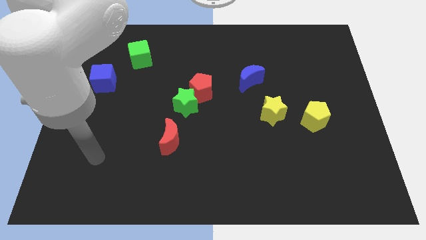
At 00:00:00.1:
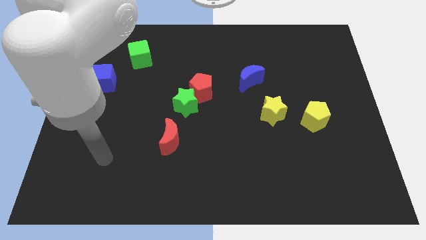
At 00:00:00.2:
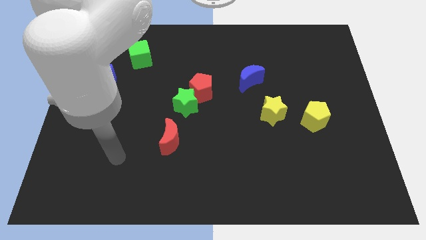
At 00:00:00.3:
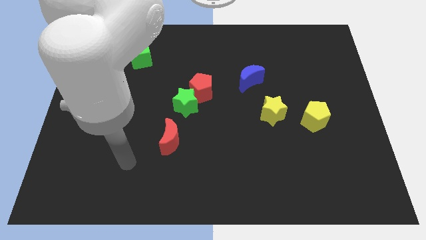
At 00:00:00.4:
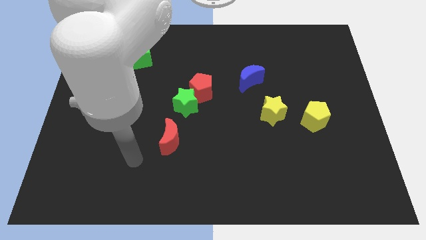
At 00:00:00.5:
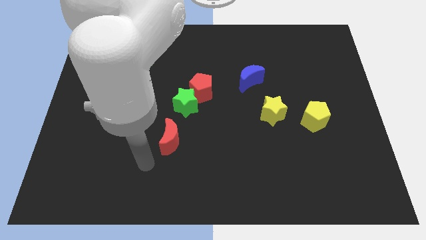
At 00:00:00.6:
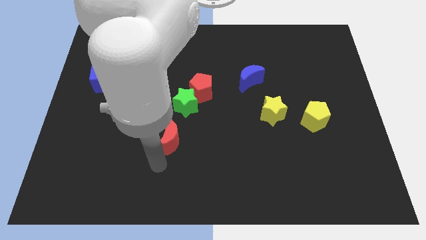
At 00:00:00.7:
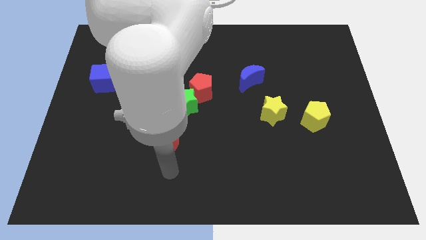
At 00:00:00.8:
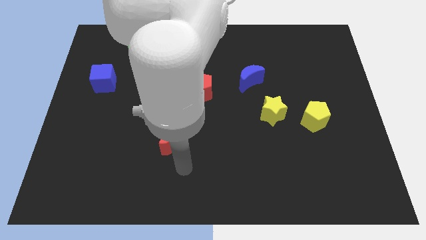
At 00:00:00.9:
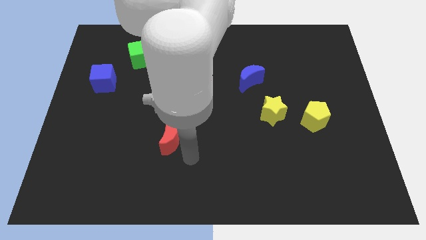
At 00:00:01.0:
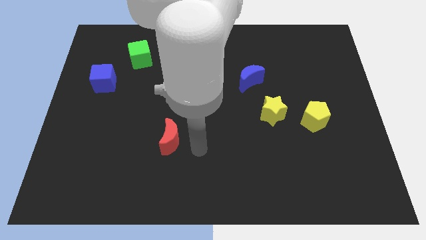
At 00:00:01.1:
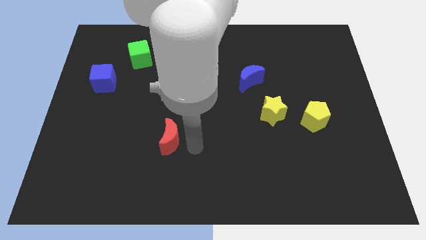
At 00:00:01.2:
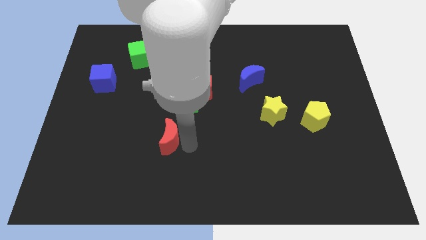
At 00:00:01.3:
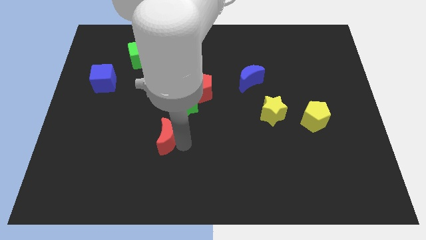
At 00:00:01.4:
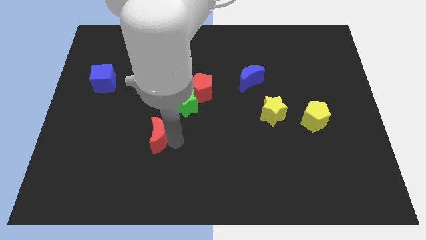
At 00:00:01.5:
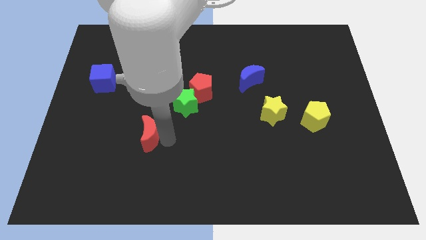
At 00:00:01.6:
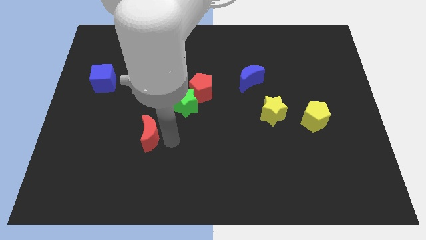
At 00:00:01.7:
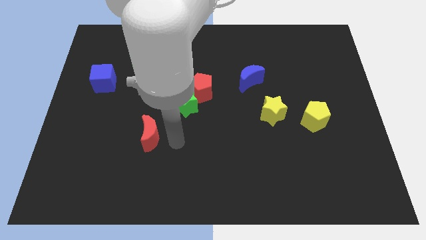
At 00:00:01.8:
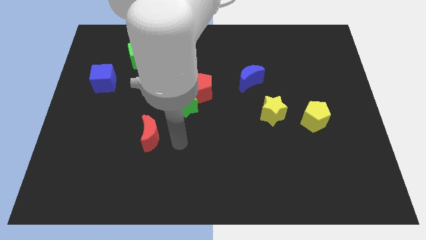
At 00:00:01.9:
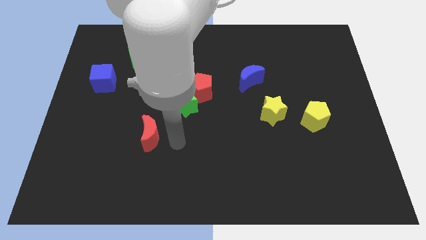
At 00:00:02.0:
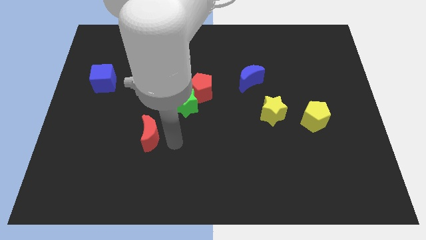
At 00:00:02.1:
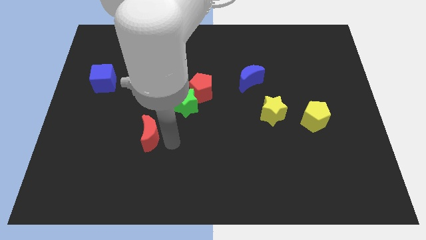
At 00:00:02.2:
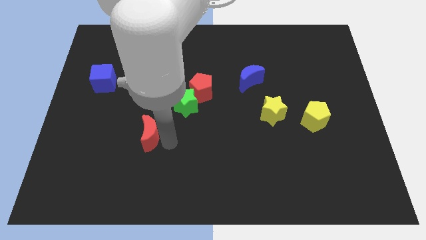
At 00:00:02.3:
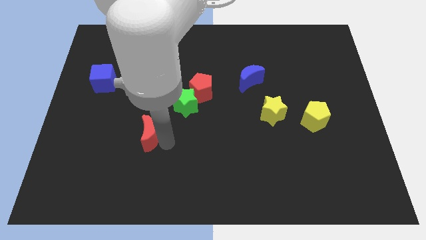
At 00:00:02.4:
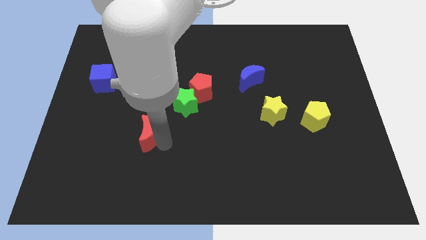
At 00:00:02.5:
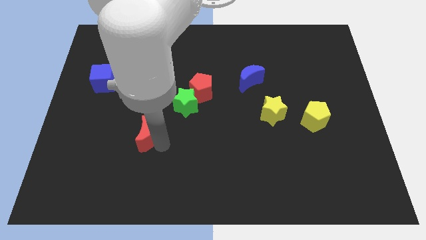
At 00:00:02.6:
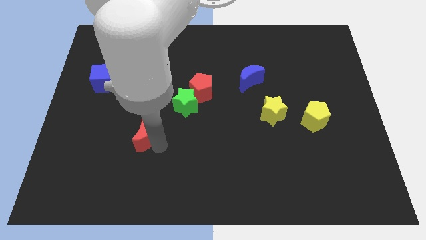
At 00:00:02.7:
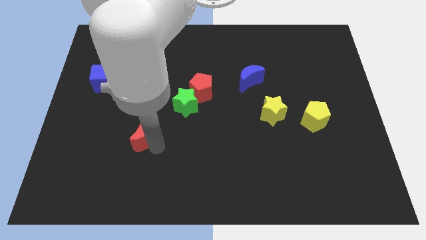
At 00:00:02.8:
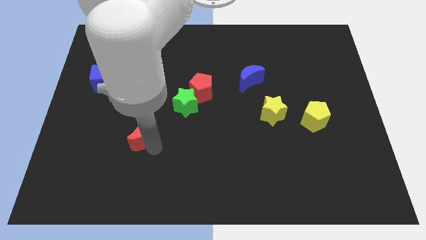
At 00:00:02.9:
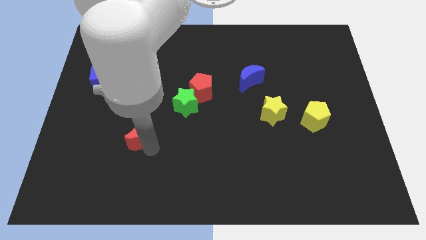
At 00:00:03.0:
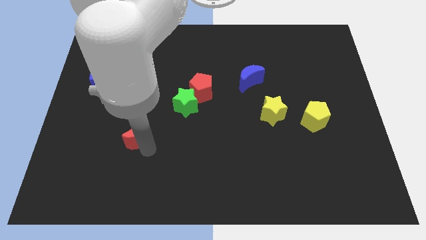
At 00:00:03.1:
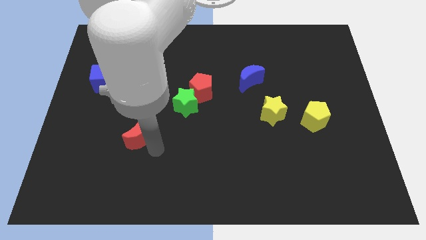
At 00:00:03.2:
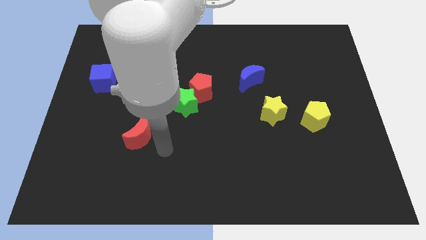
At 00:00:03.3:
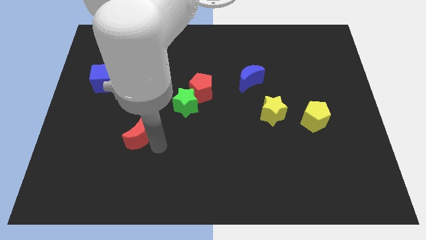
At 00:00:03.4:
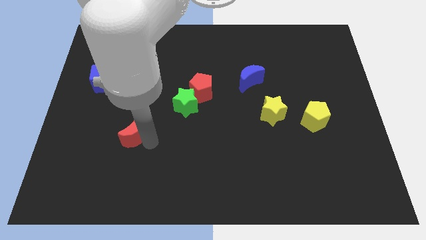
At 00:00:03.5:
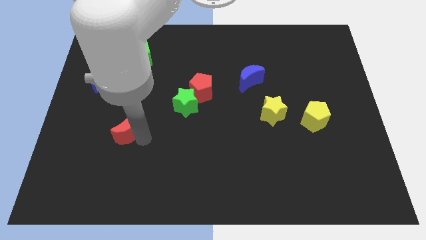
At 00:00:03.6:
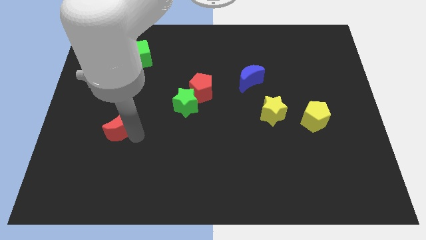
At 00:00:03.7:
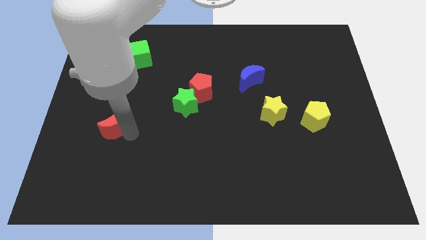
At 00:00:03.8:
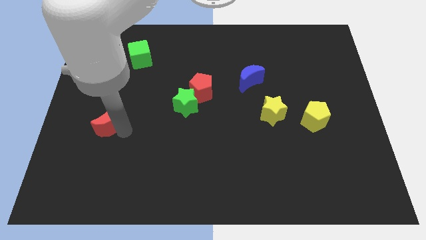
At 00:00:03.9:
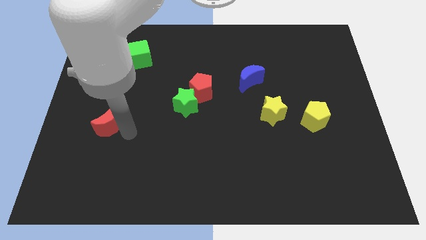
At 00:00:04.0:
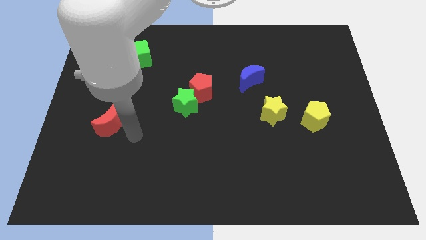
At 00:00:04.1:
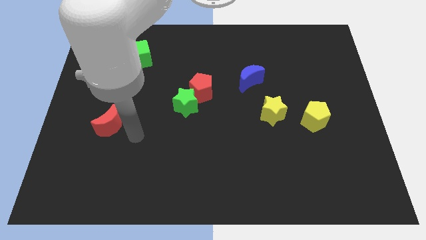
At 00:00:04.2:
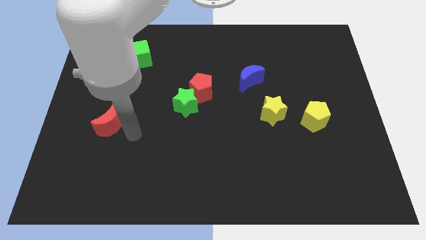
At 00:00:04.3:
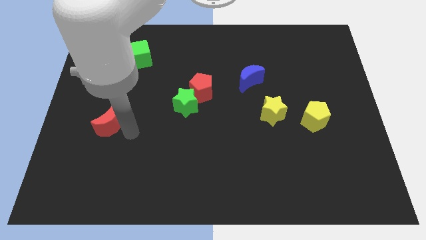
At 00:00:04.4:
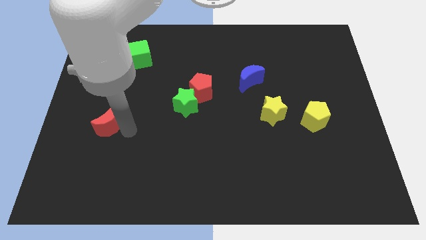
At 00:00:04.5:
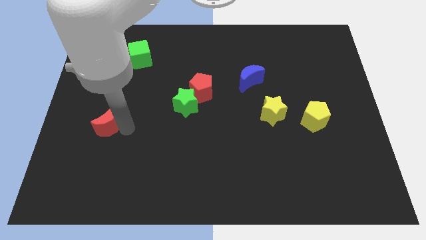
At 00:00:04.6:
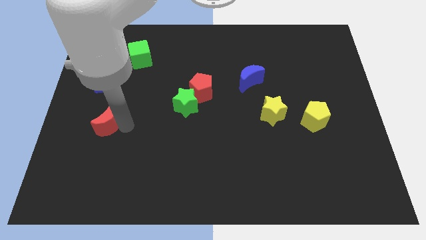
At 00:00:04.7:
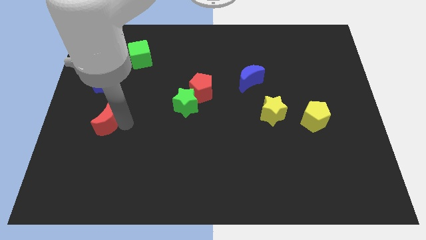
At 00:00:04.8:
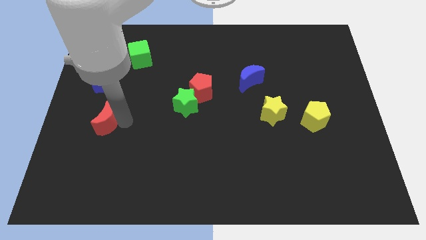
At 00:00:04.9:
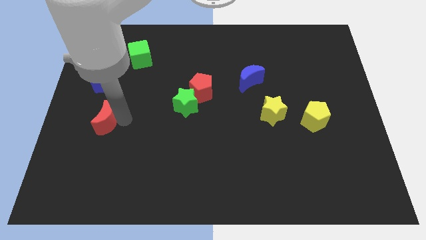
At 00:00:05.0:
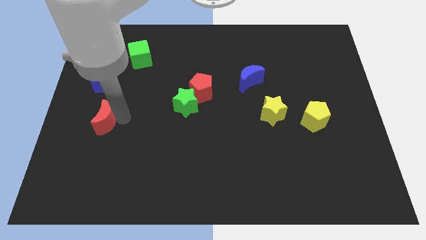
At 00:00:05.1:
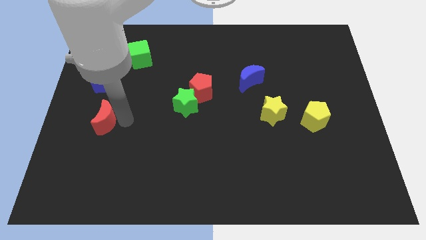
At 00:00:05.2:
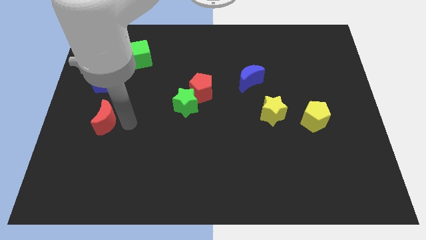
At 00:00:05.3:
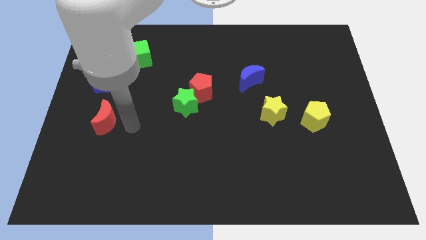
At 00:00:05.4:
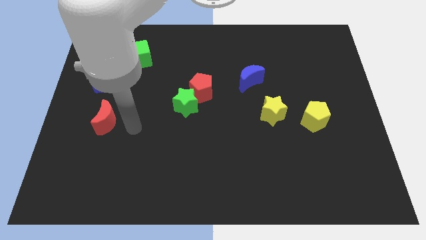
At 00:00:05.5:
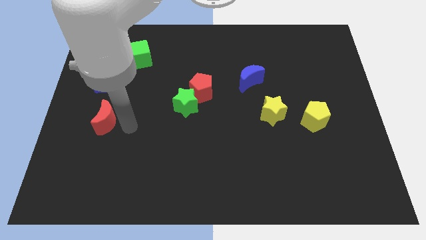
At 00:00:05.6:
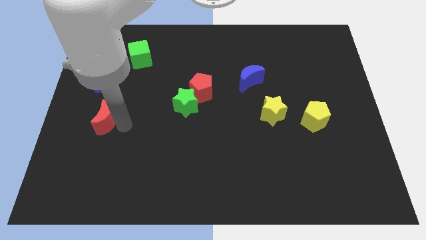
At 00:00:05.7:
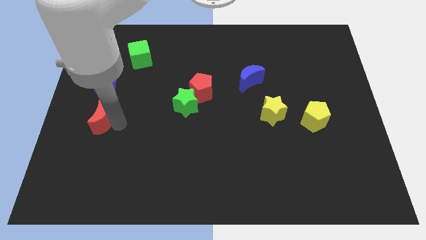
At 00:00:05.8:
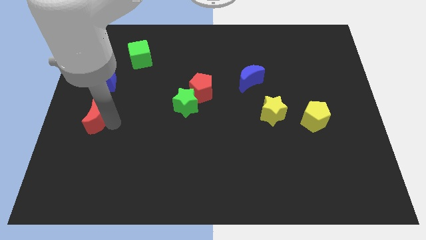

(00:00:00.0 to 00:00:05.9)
slide the red moon to the left side of the board

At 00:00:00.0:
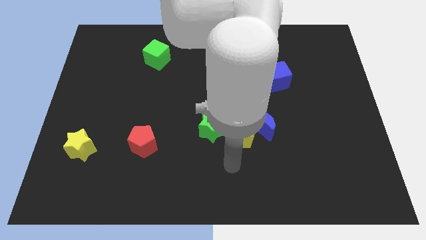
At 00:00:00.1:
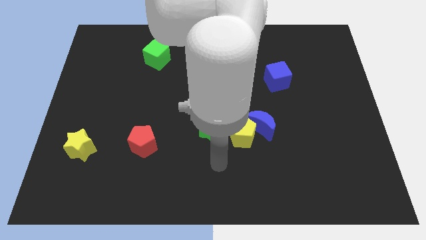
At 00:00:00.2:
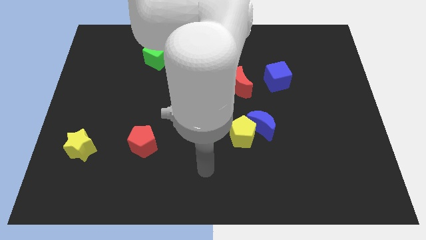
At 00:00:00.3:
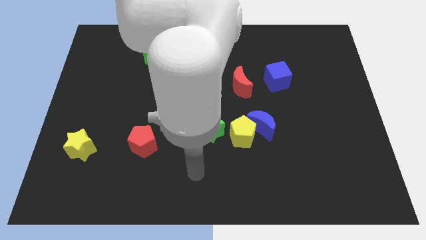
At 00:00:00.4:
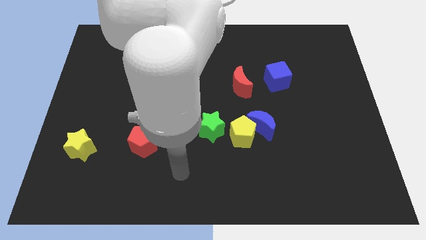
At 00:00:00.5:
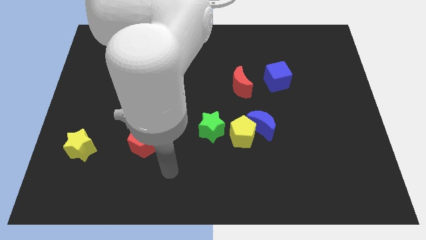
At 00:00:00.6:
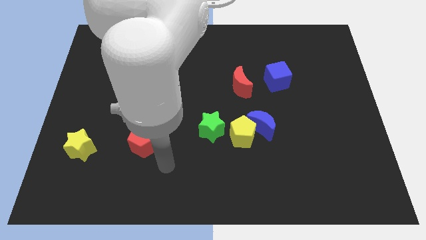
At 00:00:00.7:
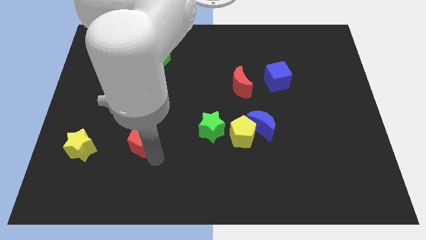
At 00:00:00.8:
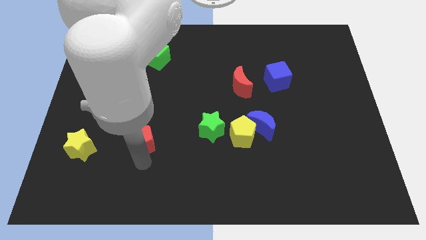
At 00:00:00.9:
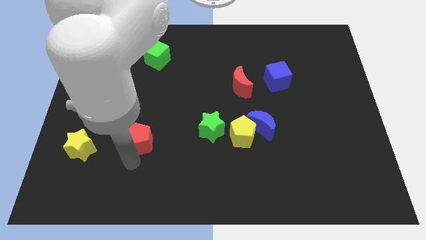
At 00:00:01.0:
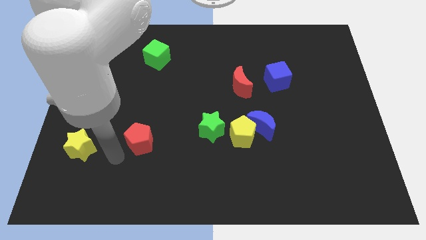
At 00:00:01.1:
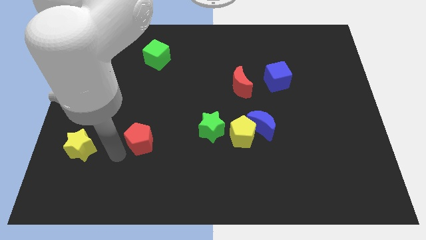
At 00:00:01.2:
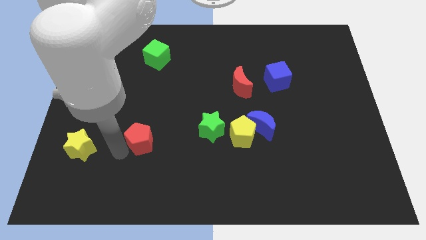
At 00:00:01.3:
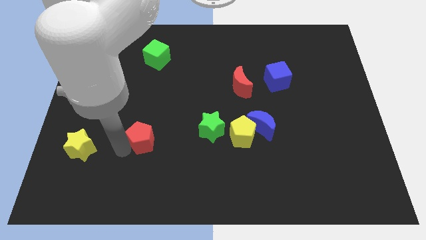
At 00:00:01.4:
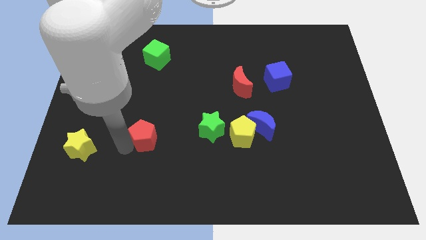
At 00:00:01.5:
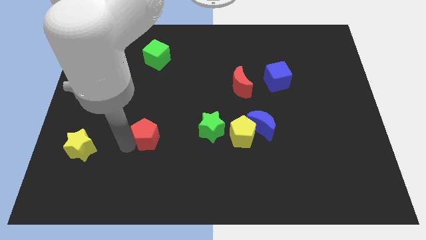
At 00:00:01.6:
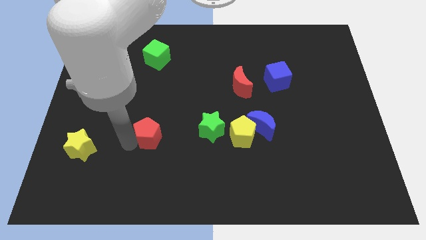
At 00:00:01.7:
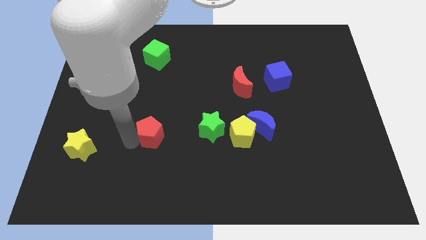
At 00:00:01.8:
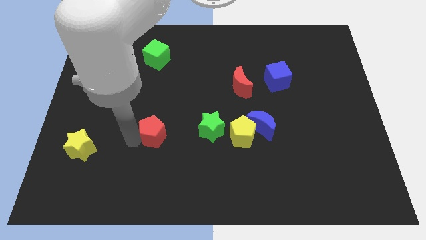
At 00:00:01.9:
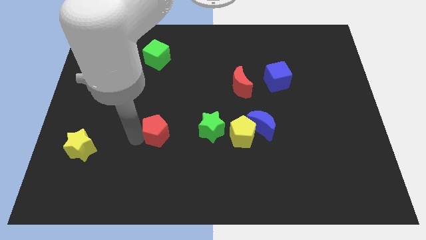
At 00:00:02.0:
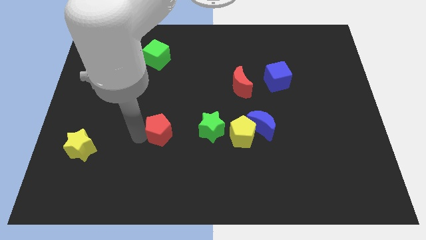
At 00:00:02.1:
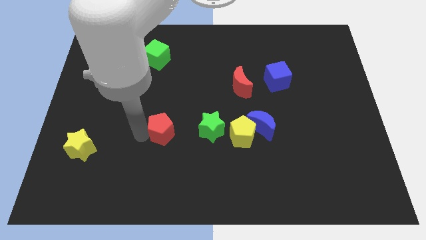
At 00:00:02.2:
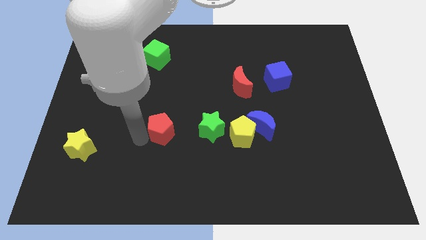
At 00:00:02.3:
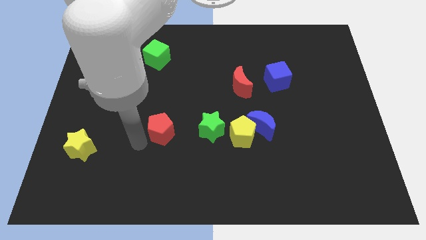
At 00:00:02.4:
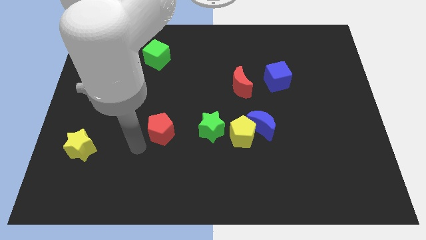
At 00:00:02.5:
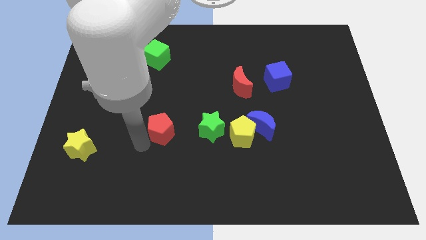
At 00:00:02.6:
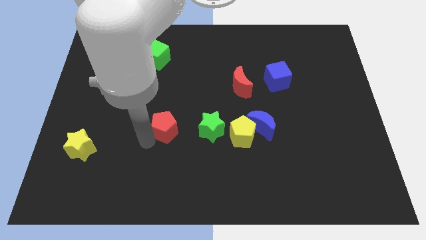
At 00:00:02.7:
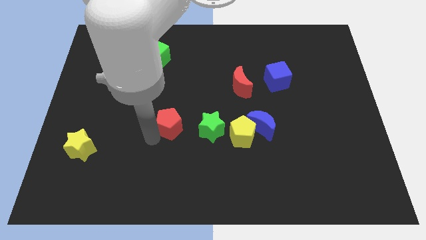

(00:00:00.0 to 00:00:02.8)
slide the red pentagon to the center
